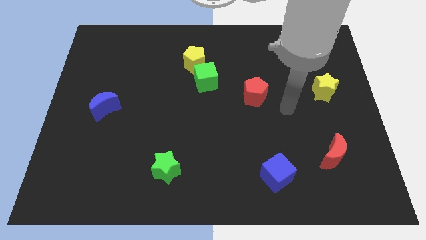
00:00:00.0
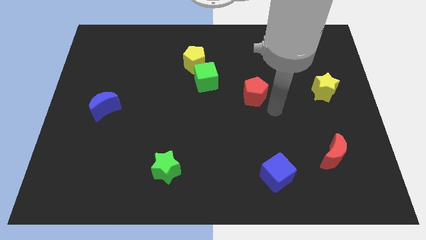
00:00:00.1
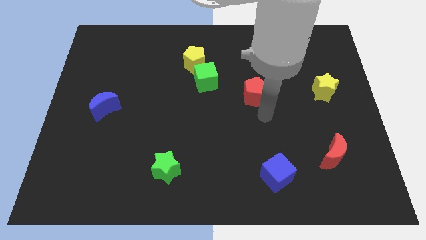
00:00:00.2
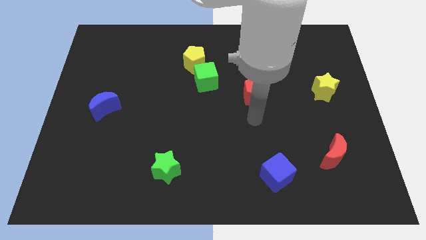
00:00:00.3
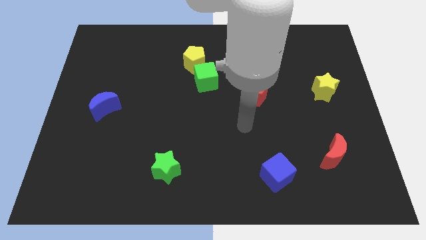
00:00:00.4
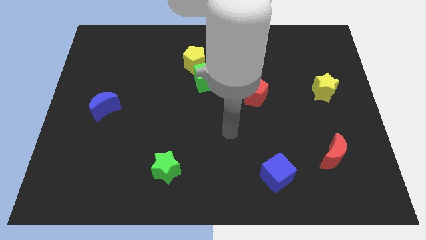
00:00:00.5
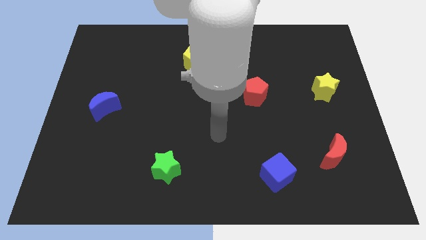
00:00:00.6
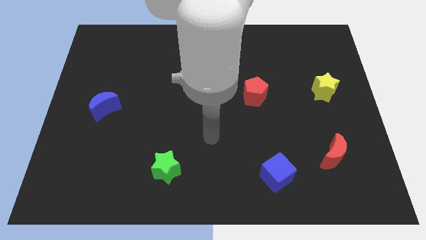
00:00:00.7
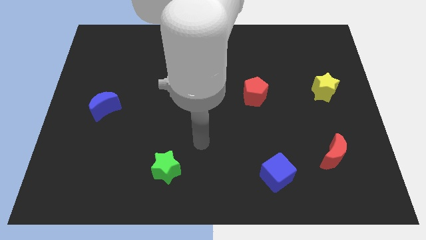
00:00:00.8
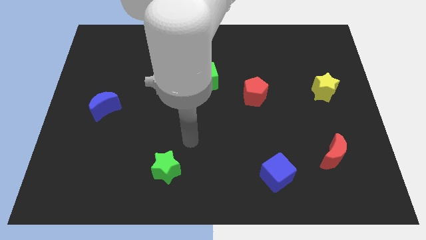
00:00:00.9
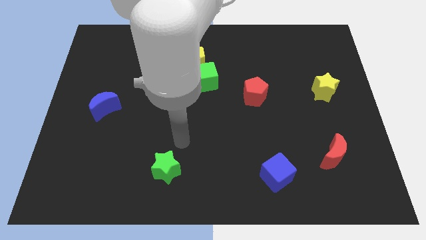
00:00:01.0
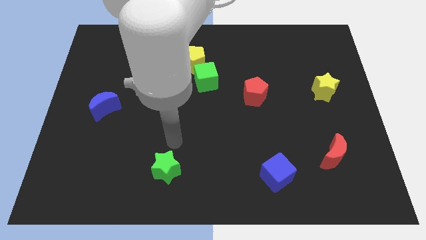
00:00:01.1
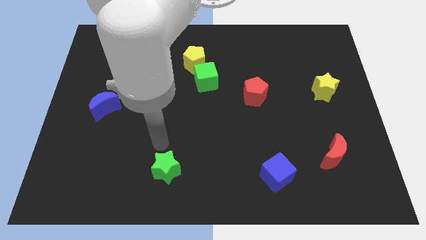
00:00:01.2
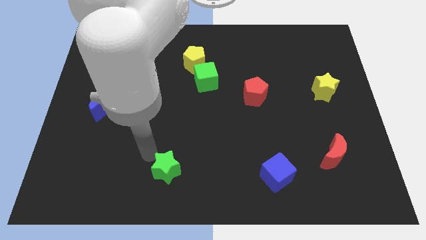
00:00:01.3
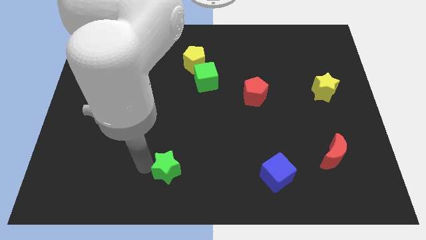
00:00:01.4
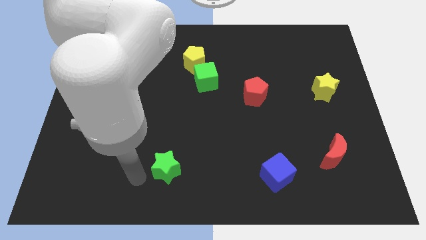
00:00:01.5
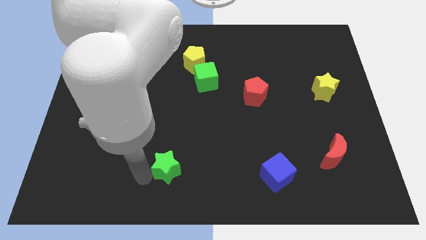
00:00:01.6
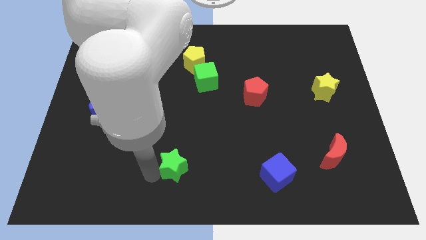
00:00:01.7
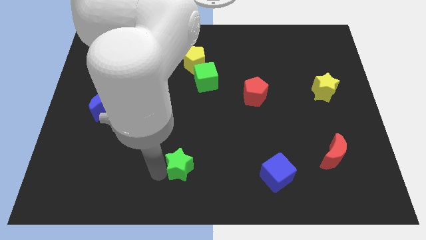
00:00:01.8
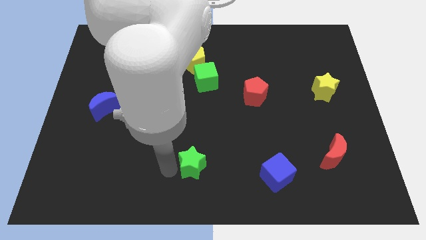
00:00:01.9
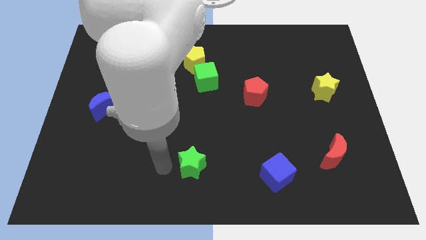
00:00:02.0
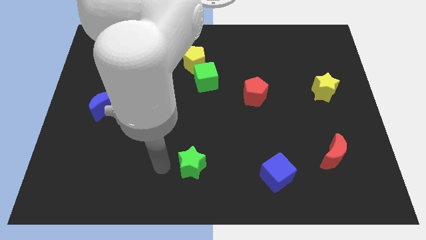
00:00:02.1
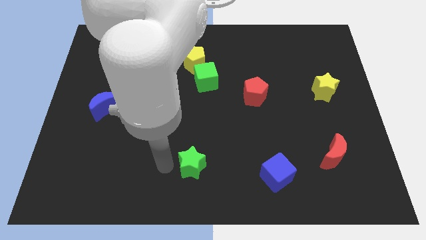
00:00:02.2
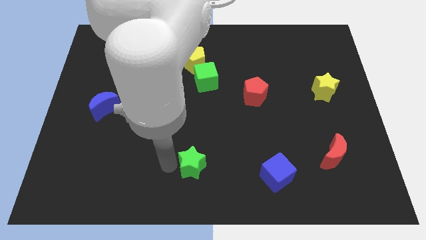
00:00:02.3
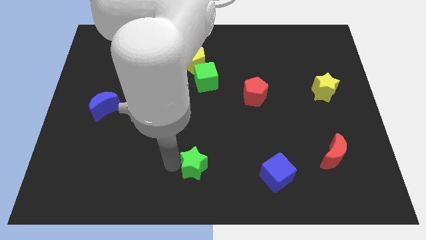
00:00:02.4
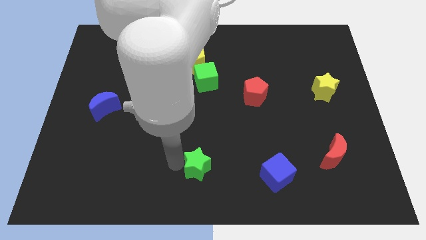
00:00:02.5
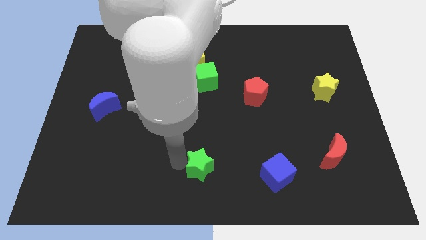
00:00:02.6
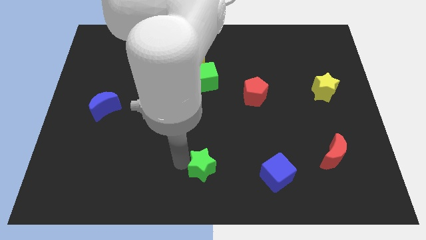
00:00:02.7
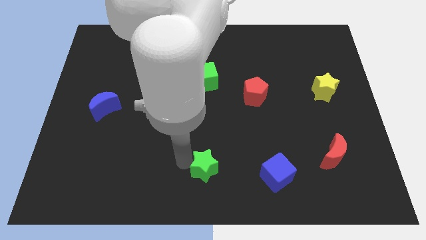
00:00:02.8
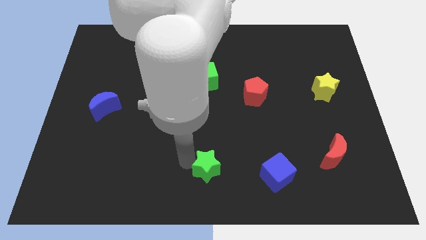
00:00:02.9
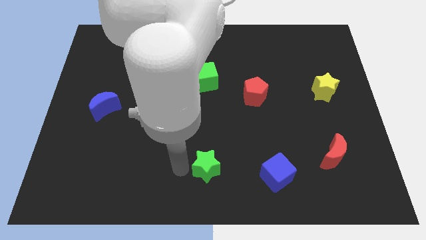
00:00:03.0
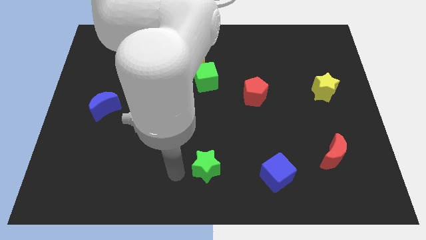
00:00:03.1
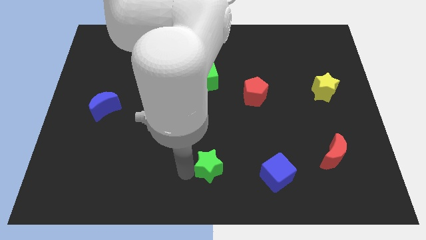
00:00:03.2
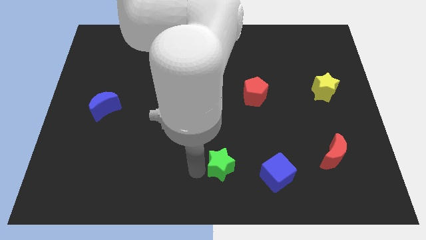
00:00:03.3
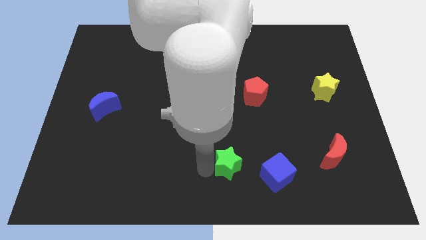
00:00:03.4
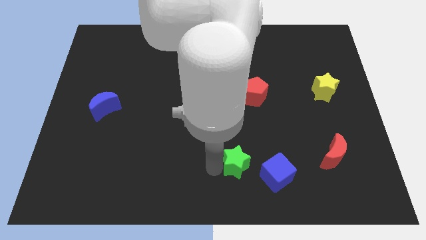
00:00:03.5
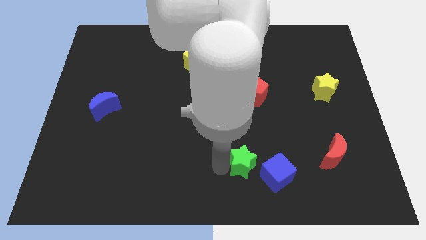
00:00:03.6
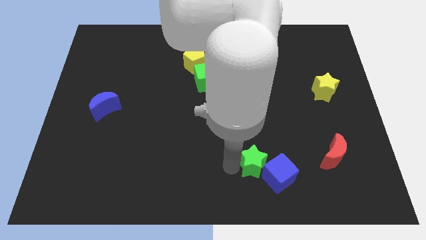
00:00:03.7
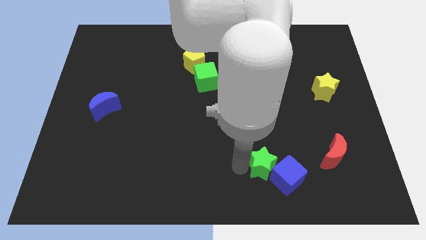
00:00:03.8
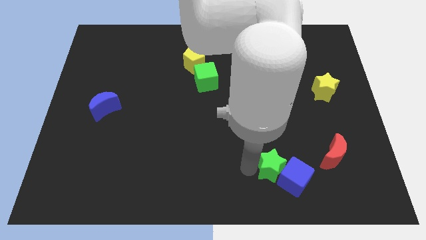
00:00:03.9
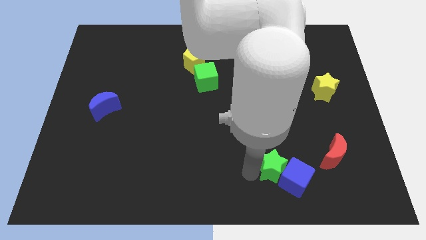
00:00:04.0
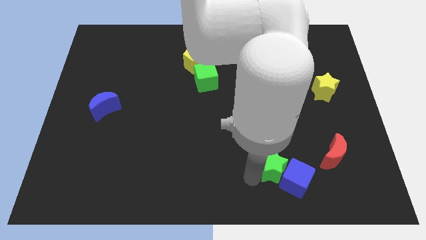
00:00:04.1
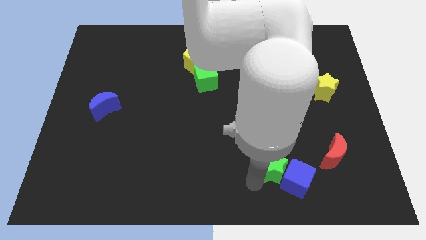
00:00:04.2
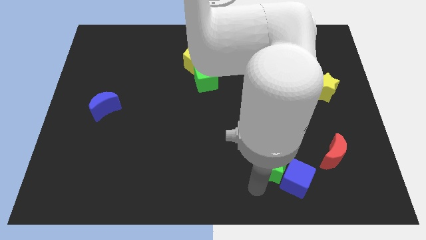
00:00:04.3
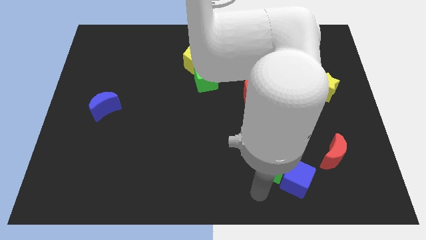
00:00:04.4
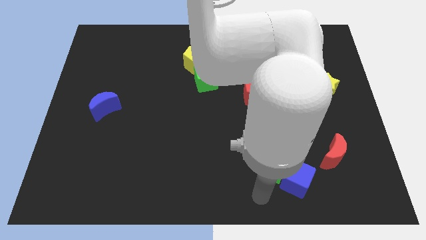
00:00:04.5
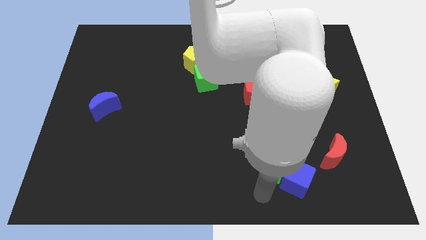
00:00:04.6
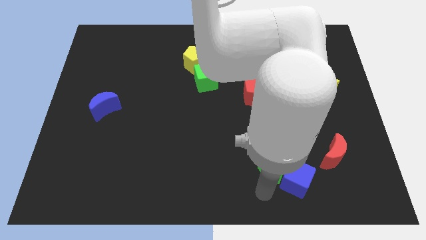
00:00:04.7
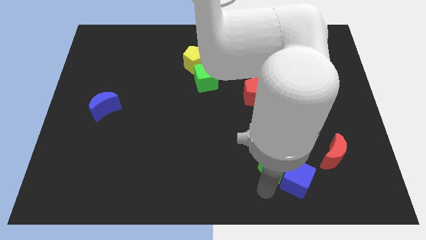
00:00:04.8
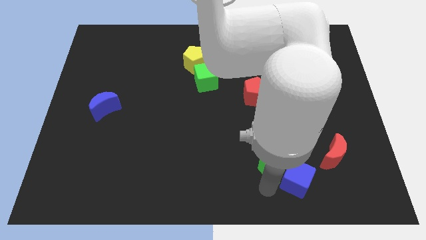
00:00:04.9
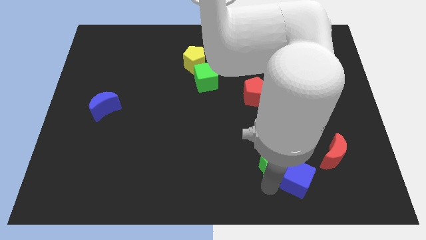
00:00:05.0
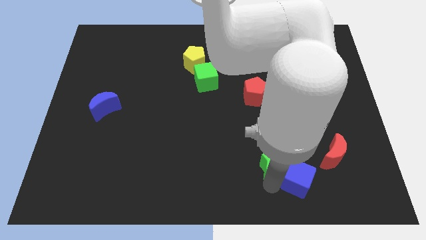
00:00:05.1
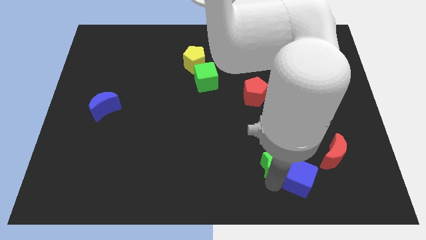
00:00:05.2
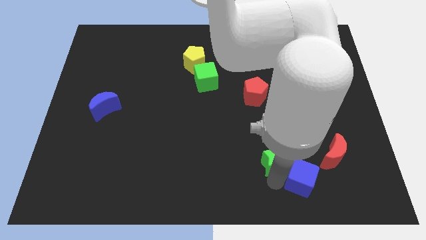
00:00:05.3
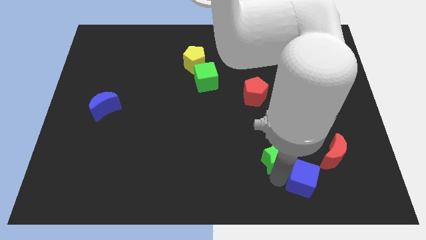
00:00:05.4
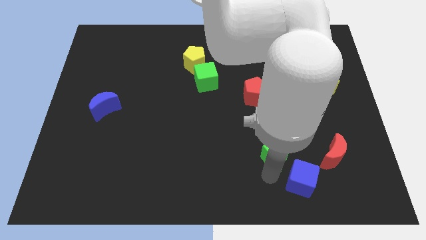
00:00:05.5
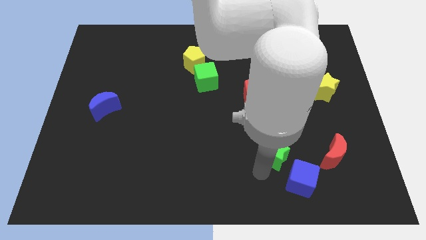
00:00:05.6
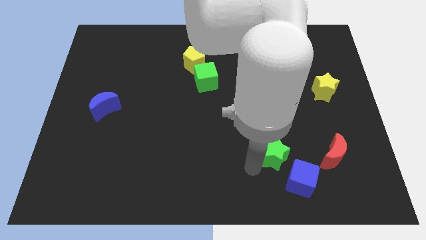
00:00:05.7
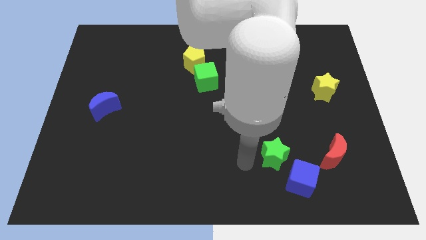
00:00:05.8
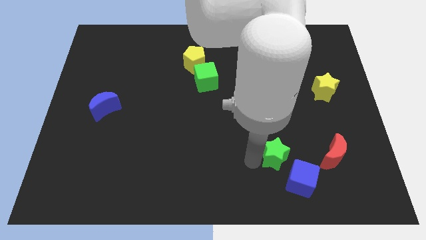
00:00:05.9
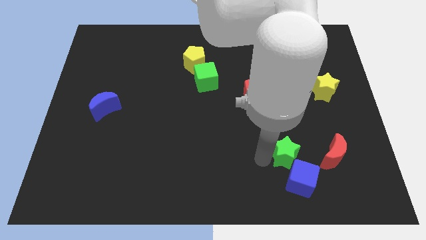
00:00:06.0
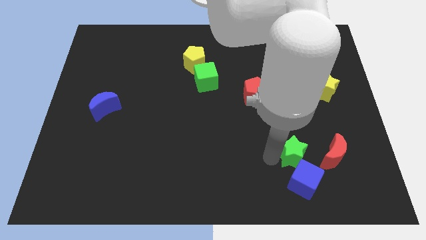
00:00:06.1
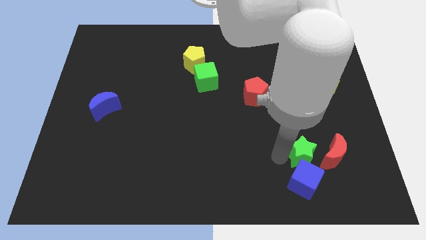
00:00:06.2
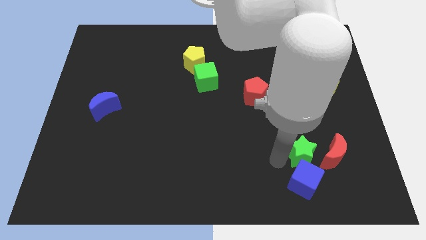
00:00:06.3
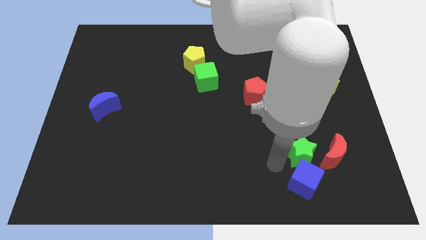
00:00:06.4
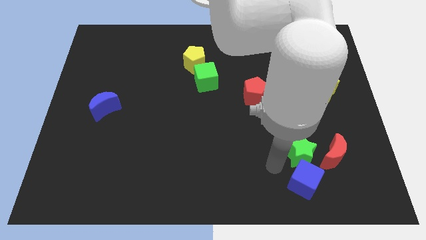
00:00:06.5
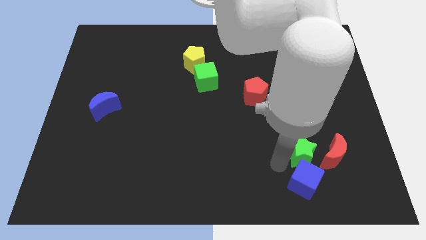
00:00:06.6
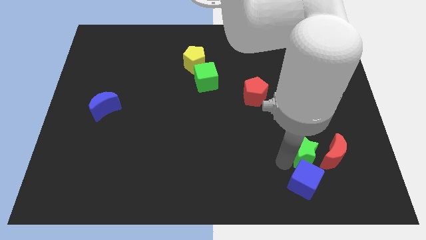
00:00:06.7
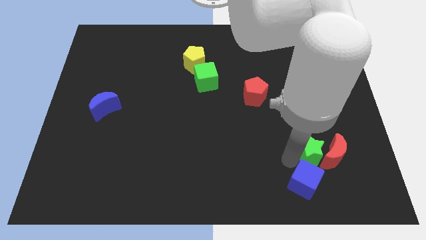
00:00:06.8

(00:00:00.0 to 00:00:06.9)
put the green star towards the red moon

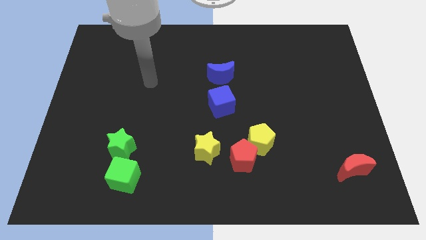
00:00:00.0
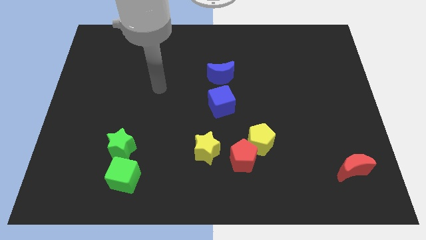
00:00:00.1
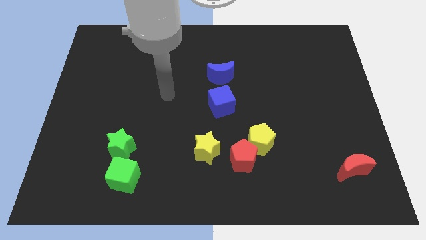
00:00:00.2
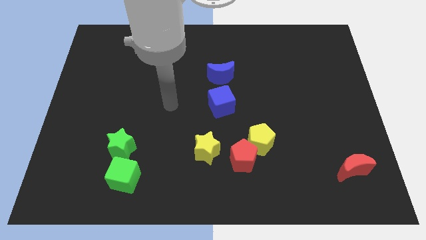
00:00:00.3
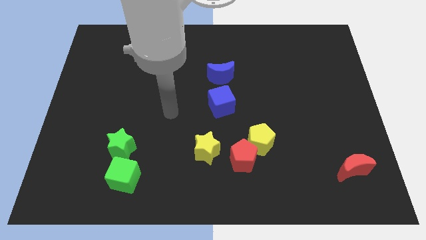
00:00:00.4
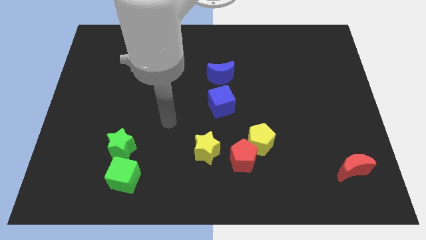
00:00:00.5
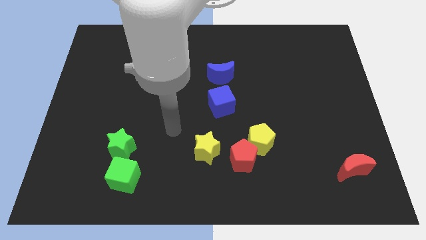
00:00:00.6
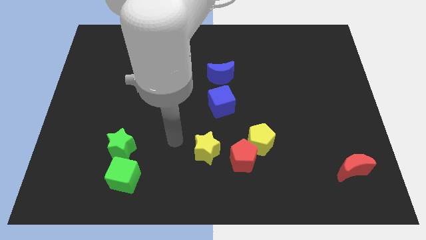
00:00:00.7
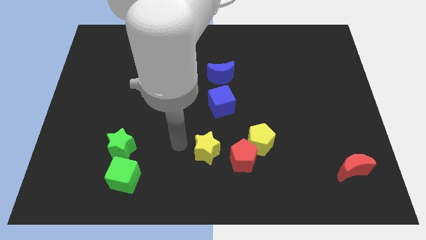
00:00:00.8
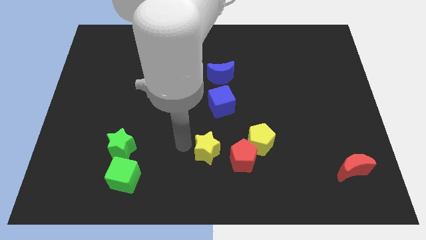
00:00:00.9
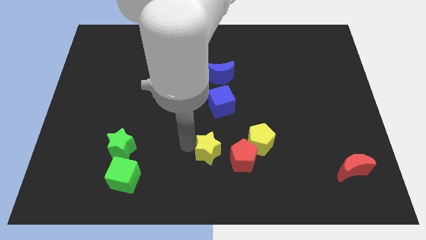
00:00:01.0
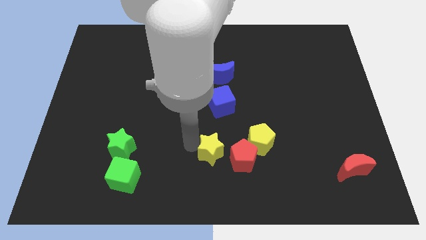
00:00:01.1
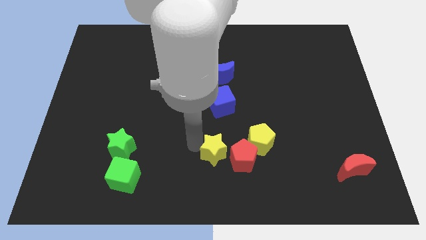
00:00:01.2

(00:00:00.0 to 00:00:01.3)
move the yellow star next to the red pentagon
